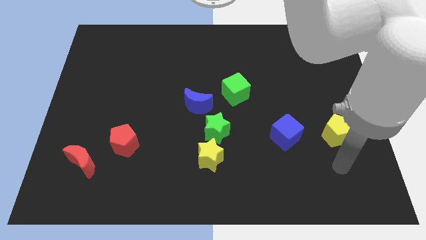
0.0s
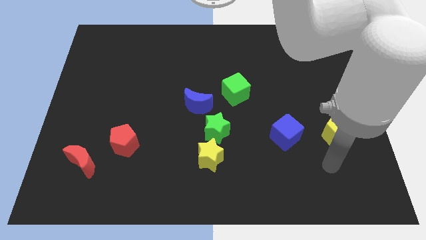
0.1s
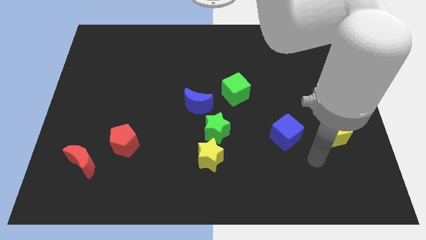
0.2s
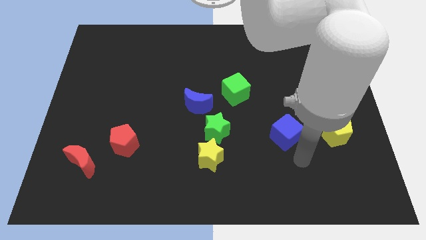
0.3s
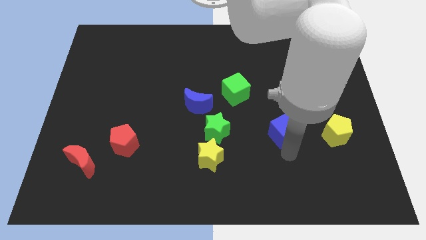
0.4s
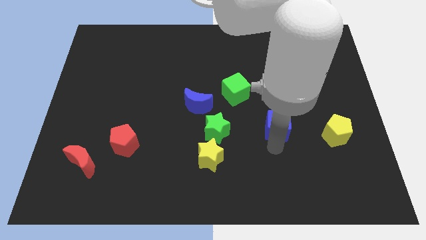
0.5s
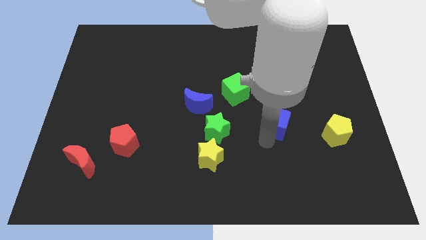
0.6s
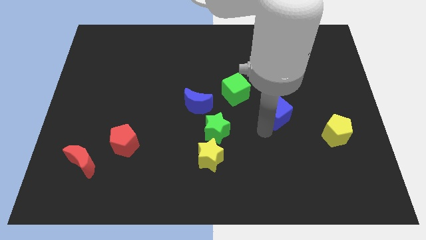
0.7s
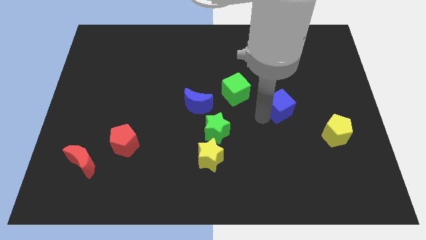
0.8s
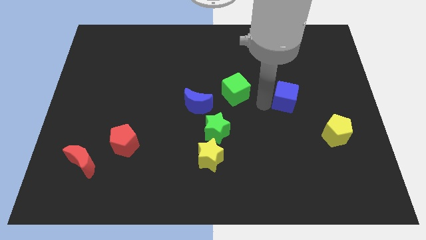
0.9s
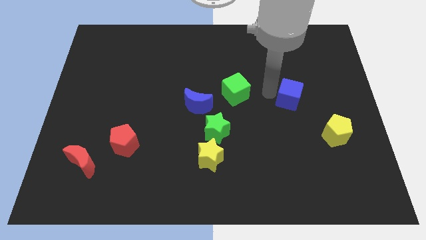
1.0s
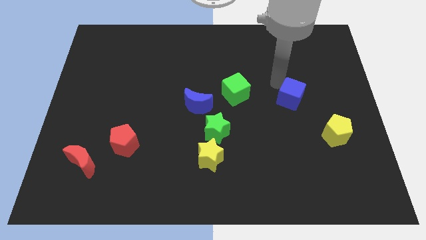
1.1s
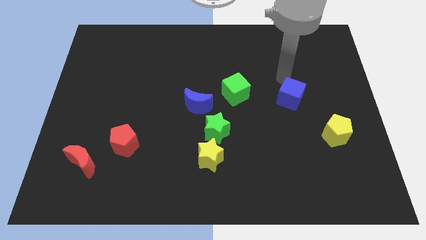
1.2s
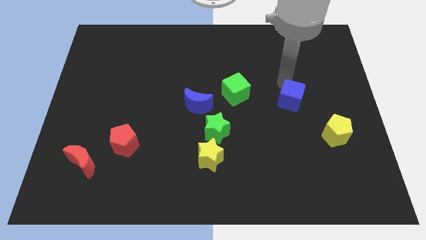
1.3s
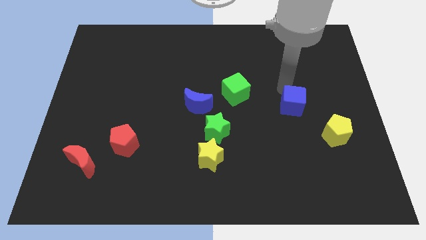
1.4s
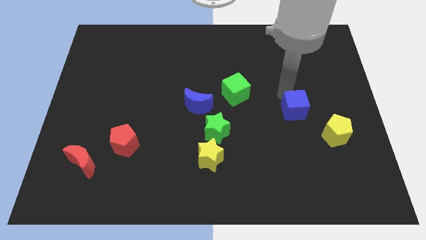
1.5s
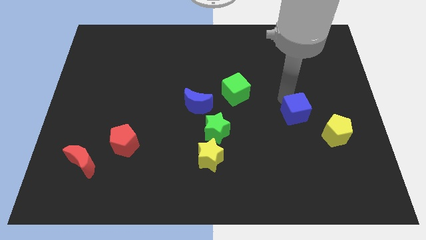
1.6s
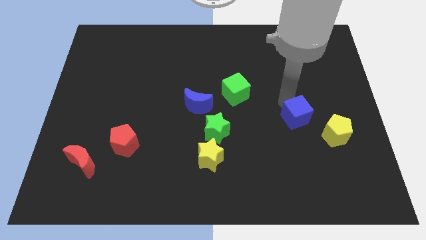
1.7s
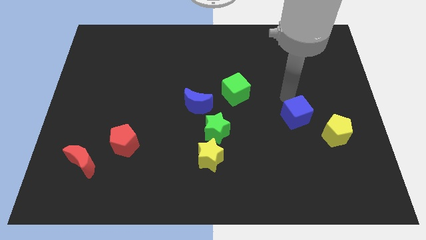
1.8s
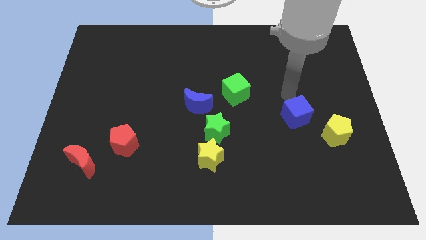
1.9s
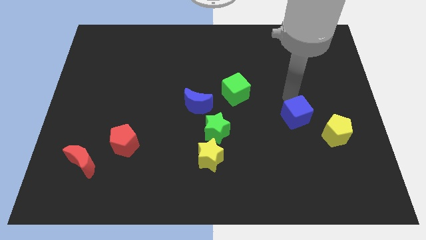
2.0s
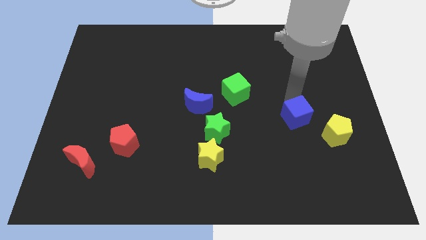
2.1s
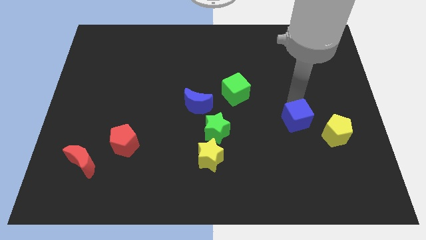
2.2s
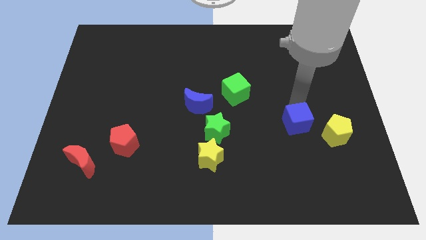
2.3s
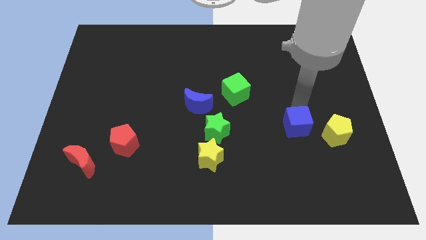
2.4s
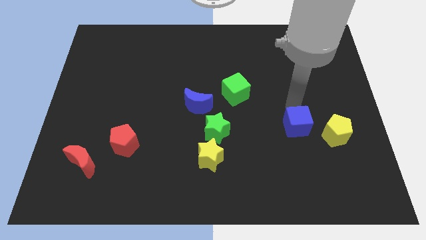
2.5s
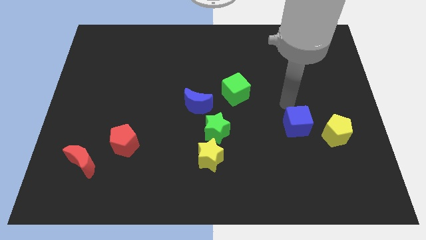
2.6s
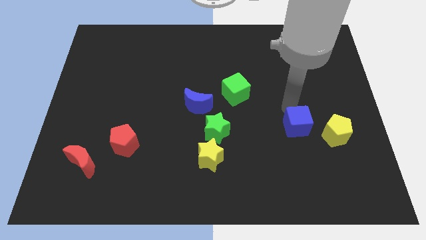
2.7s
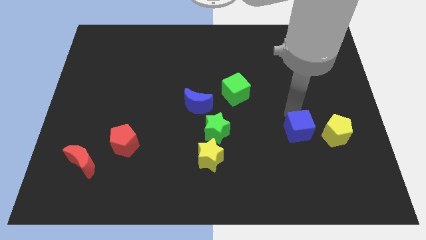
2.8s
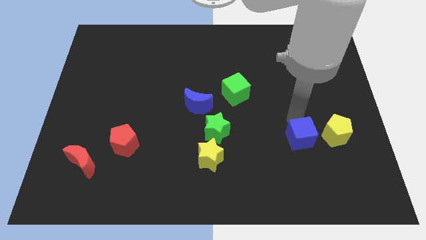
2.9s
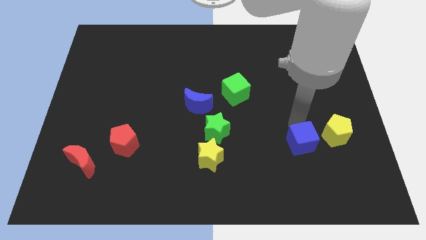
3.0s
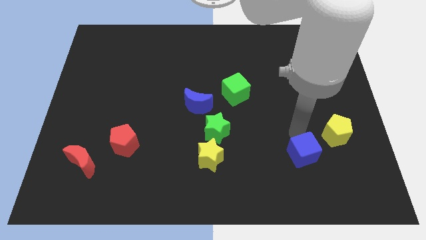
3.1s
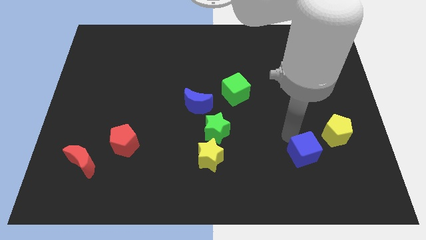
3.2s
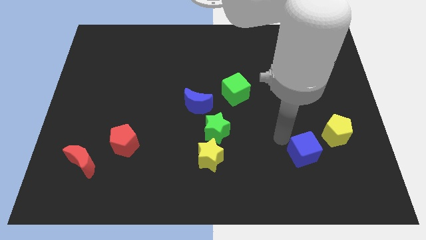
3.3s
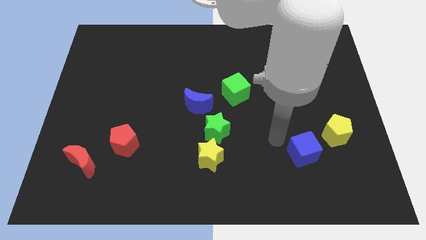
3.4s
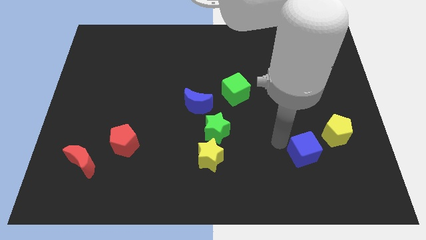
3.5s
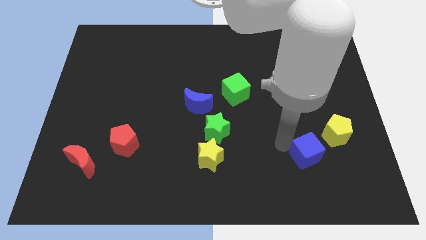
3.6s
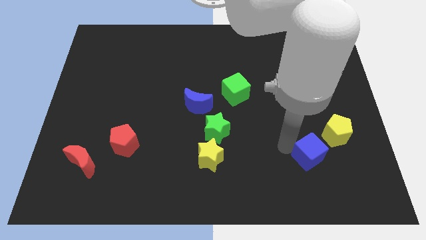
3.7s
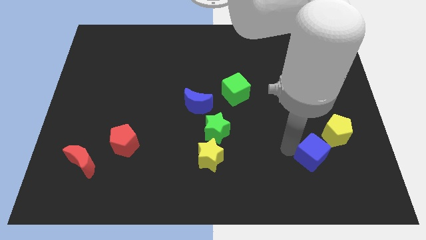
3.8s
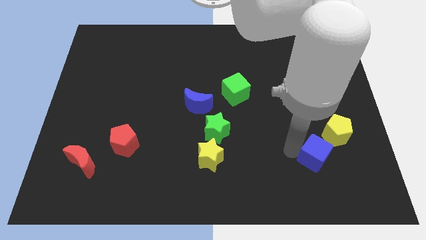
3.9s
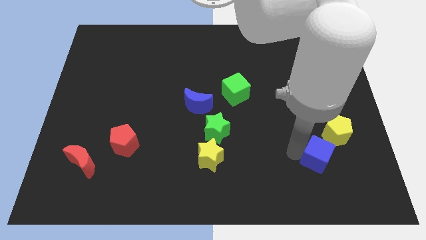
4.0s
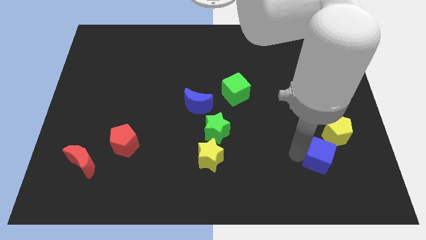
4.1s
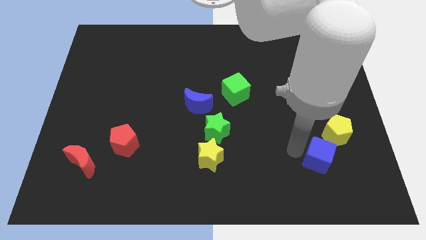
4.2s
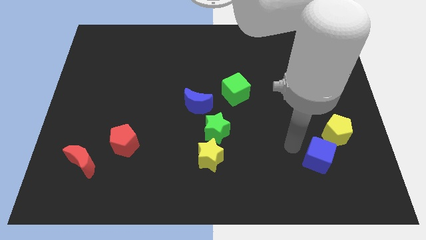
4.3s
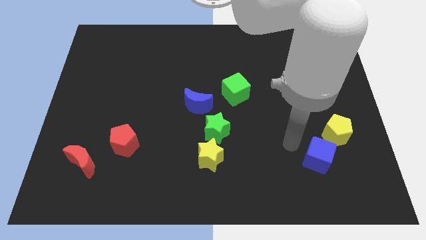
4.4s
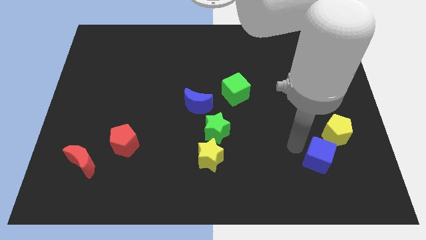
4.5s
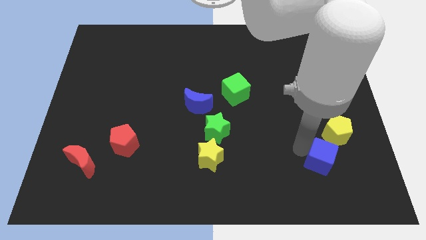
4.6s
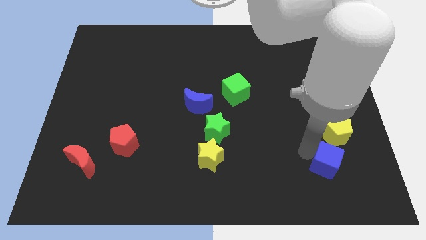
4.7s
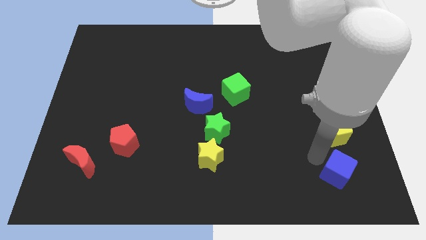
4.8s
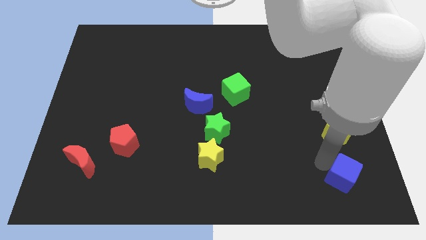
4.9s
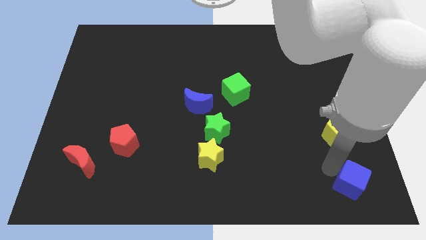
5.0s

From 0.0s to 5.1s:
slide the blue cube to the bottom right
